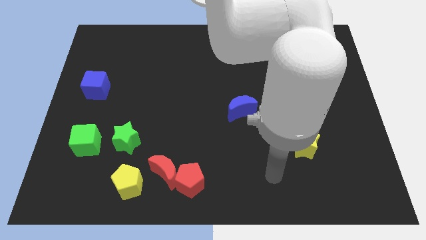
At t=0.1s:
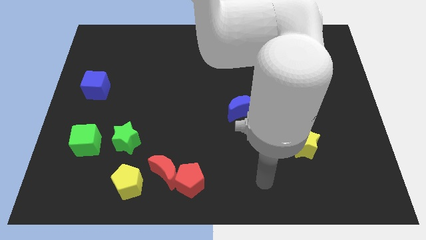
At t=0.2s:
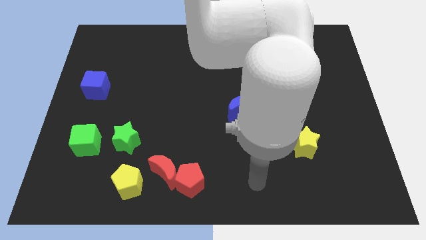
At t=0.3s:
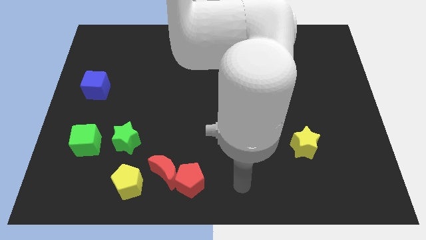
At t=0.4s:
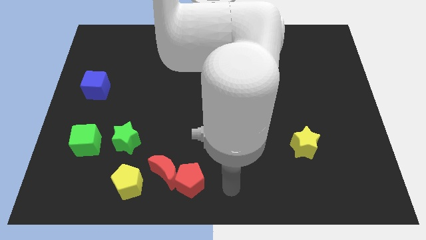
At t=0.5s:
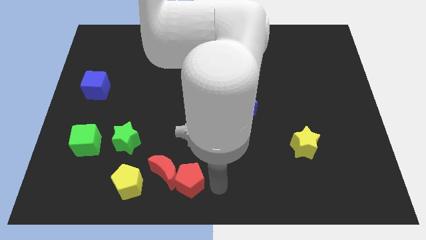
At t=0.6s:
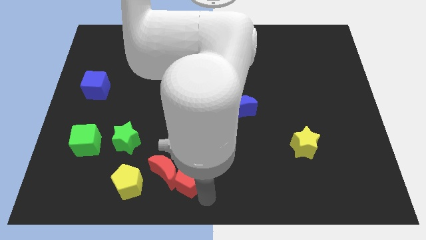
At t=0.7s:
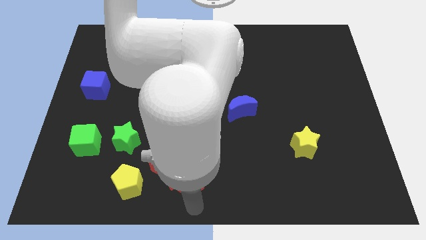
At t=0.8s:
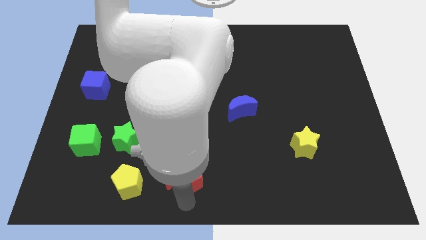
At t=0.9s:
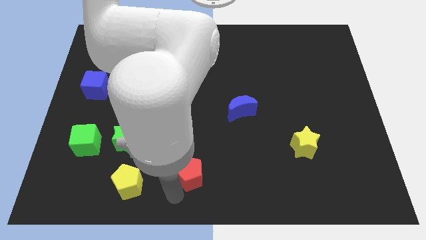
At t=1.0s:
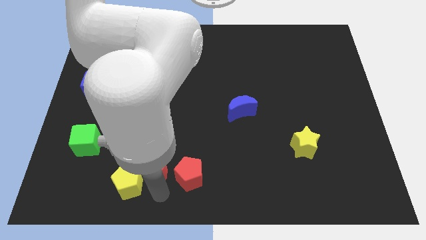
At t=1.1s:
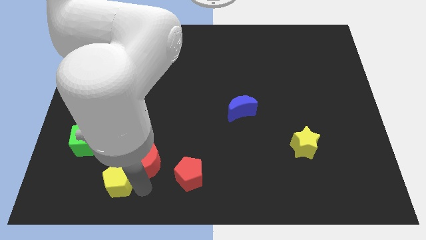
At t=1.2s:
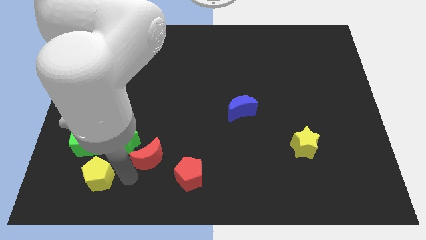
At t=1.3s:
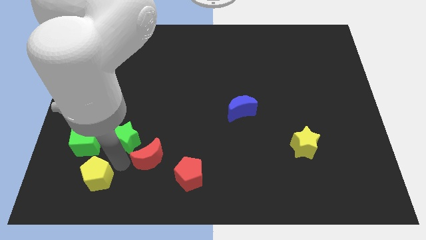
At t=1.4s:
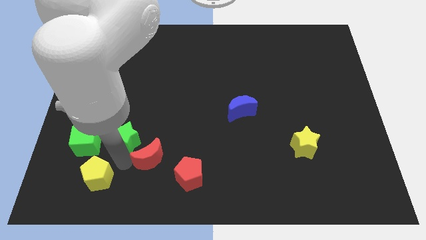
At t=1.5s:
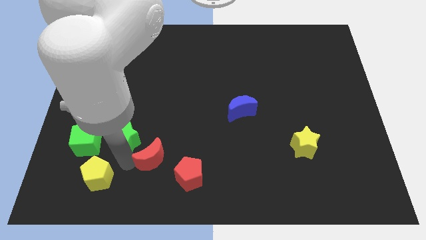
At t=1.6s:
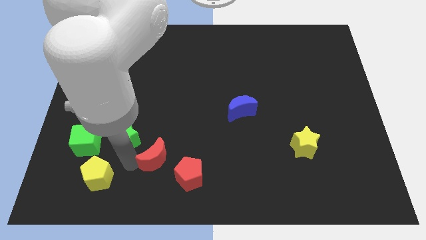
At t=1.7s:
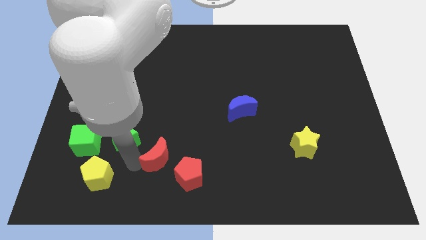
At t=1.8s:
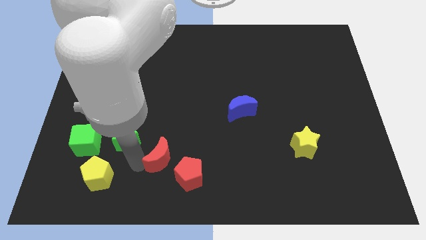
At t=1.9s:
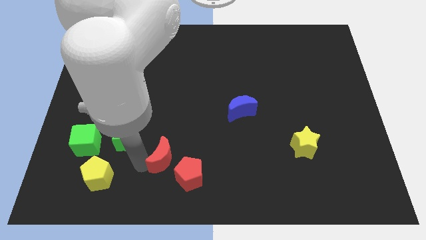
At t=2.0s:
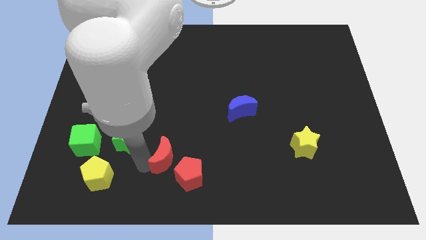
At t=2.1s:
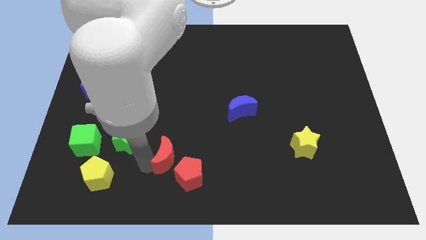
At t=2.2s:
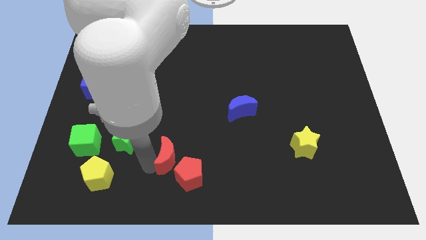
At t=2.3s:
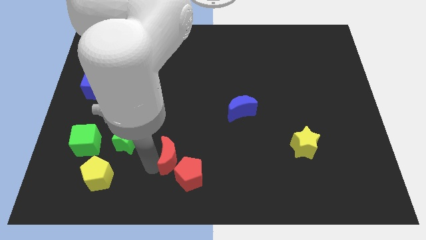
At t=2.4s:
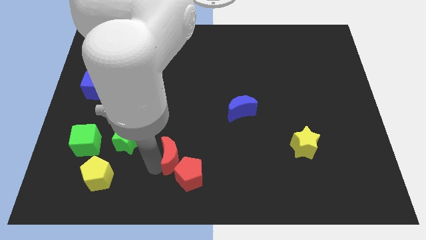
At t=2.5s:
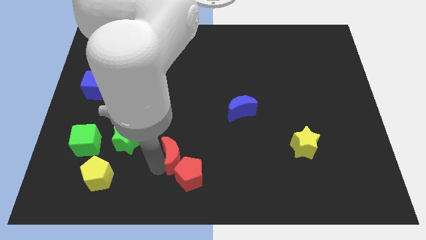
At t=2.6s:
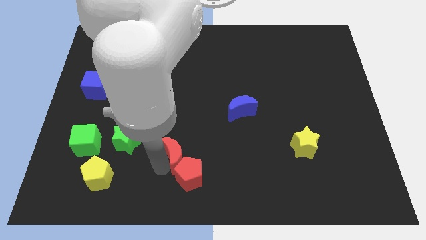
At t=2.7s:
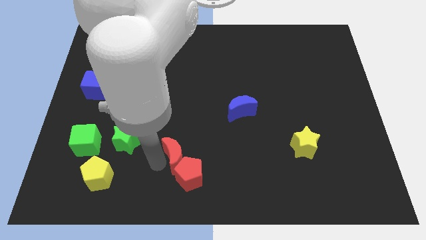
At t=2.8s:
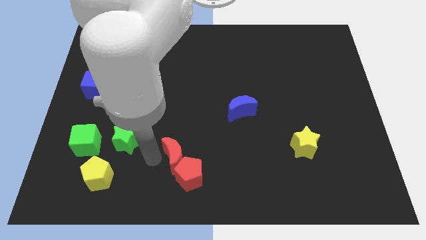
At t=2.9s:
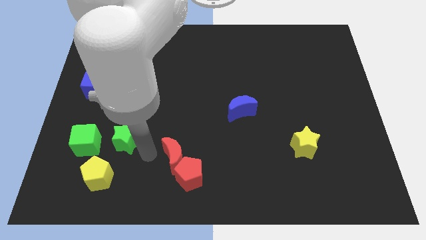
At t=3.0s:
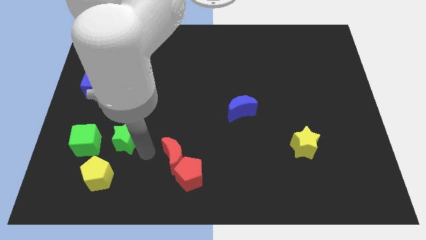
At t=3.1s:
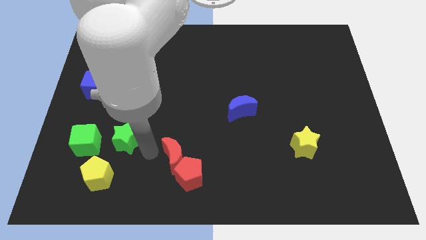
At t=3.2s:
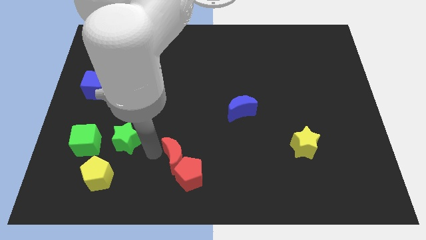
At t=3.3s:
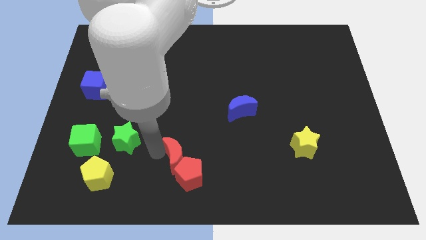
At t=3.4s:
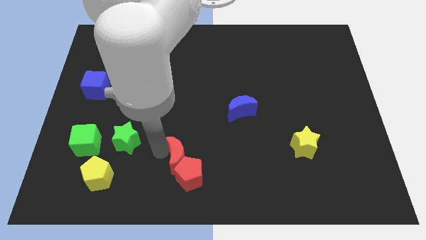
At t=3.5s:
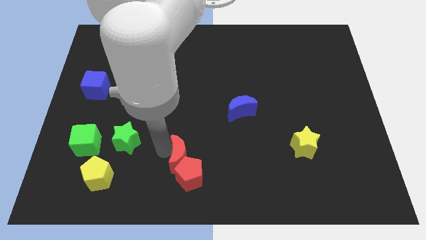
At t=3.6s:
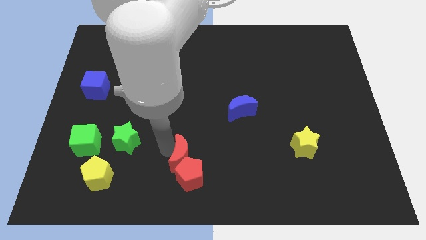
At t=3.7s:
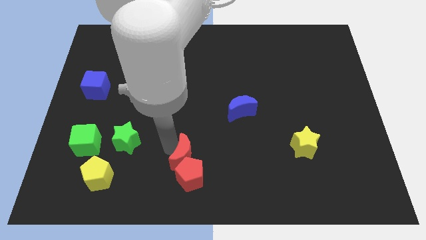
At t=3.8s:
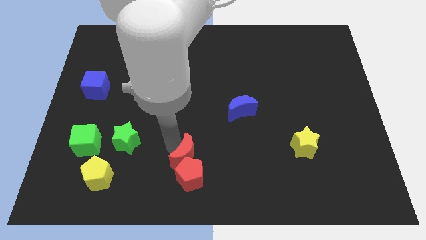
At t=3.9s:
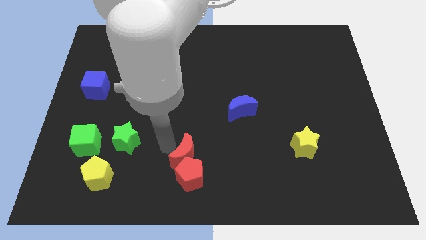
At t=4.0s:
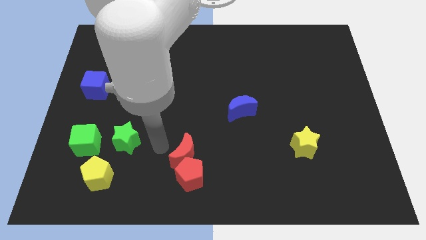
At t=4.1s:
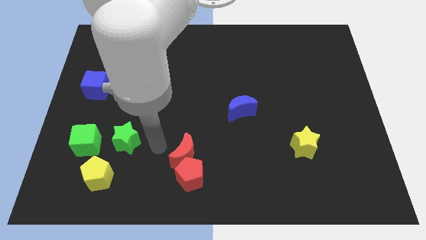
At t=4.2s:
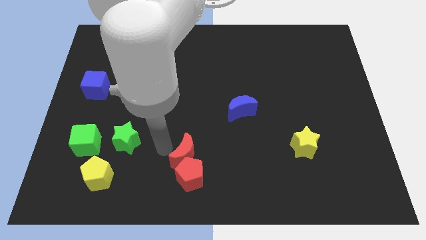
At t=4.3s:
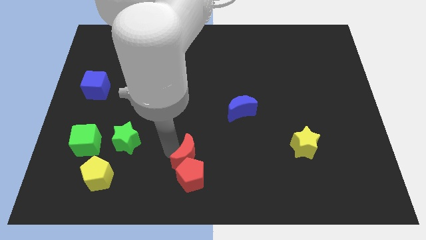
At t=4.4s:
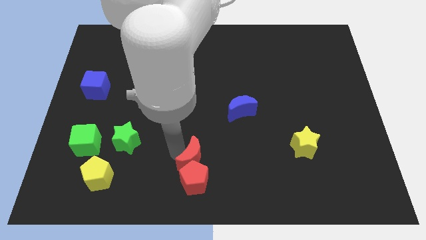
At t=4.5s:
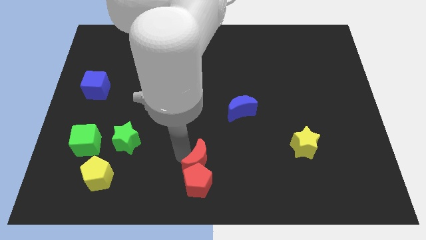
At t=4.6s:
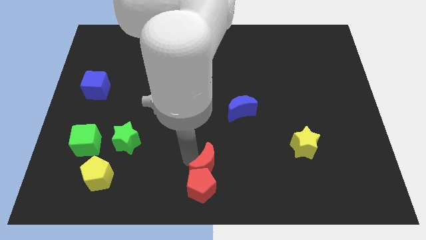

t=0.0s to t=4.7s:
slide the red moon slightly right

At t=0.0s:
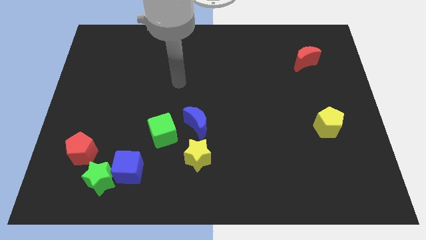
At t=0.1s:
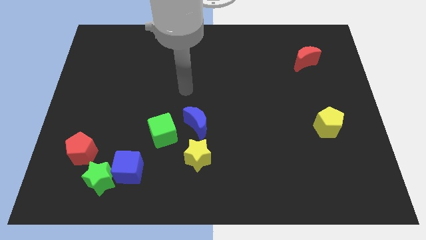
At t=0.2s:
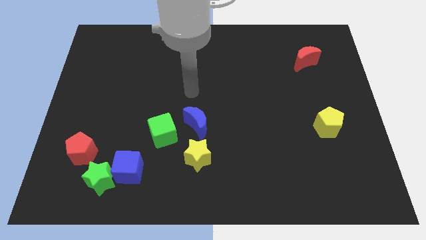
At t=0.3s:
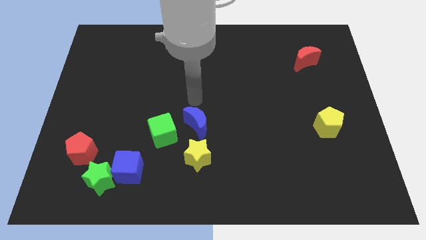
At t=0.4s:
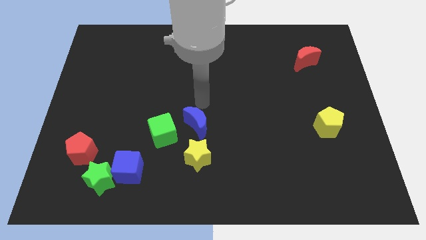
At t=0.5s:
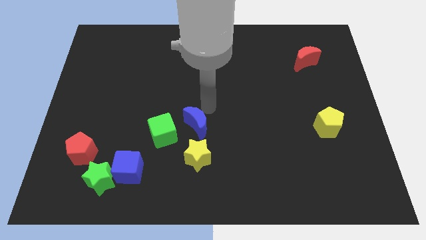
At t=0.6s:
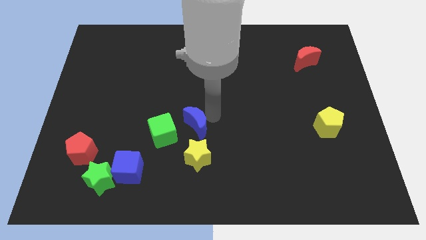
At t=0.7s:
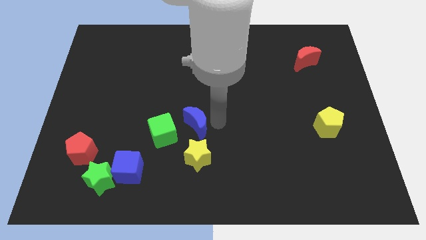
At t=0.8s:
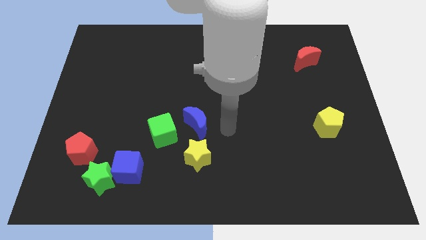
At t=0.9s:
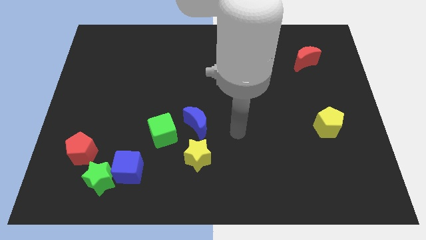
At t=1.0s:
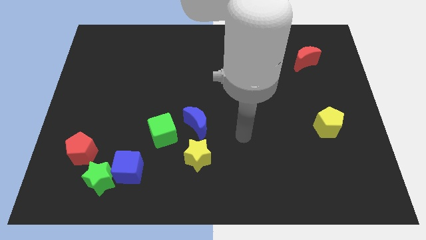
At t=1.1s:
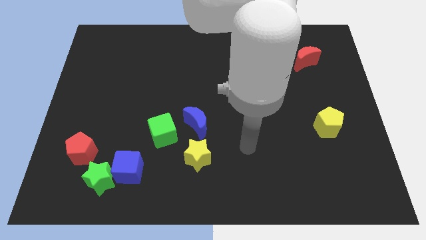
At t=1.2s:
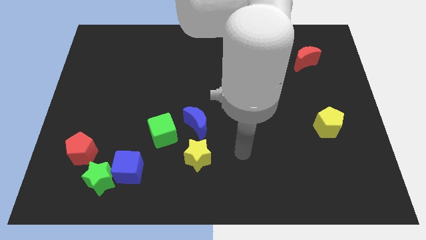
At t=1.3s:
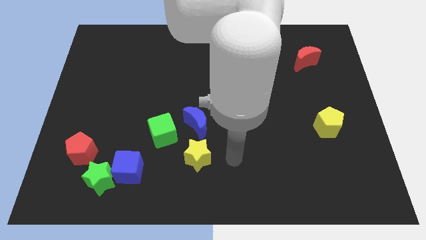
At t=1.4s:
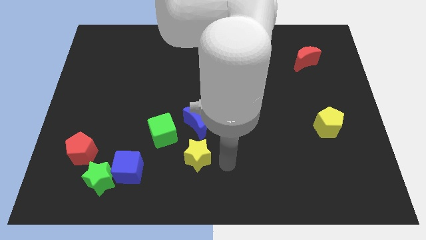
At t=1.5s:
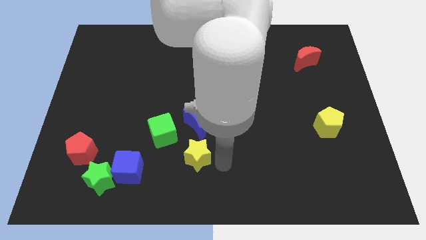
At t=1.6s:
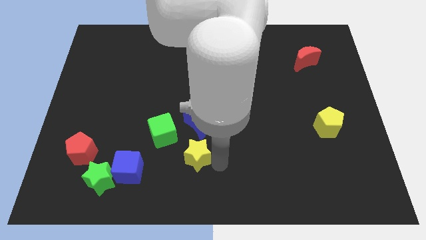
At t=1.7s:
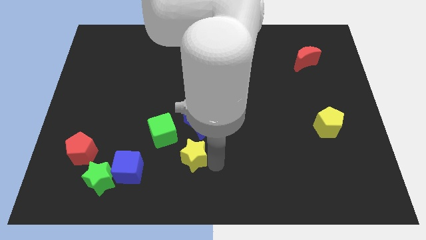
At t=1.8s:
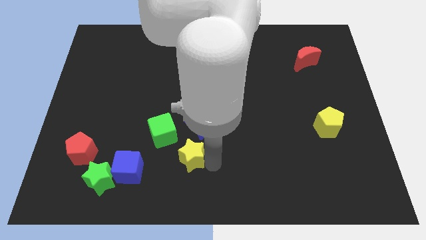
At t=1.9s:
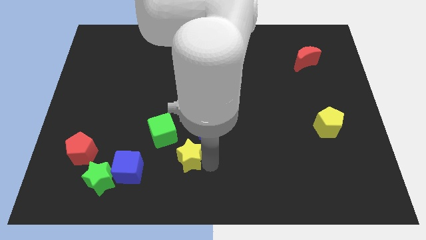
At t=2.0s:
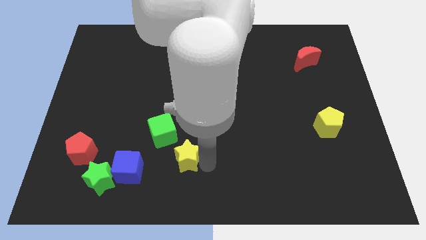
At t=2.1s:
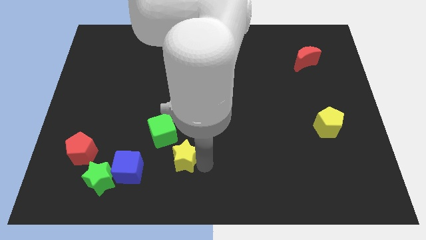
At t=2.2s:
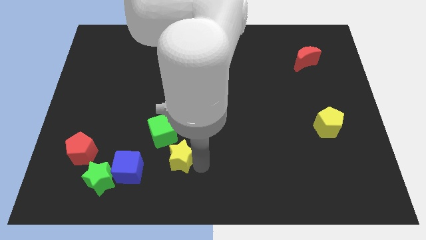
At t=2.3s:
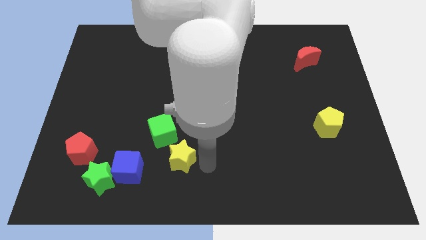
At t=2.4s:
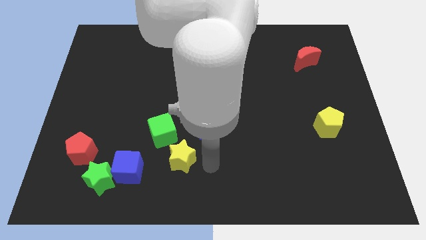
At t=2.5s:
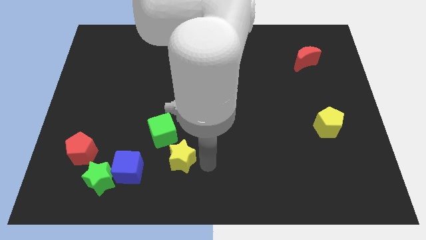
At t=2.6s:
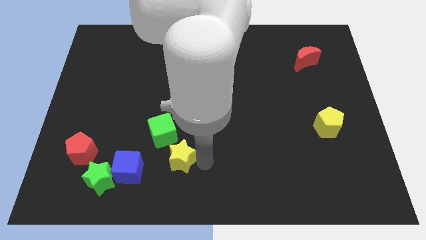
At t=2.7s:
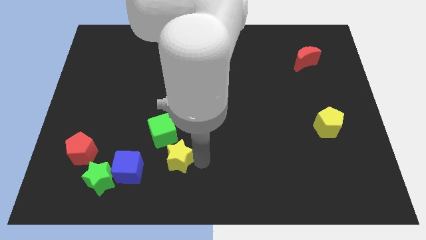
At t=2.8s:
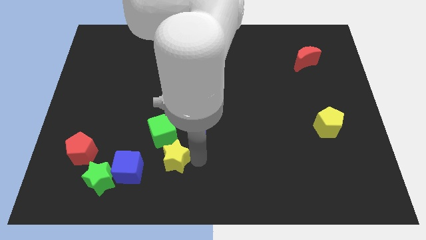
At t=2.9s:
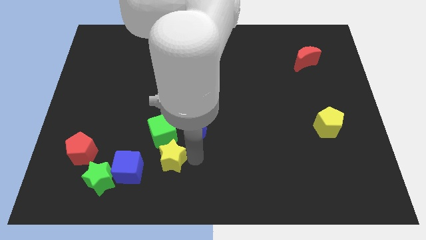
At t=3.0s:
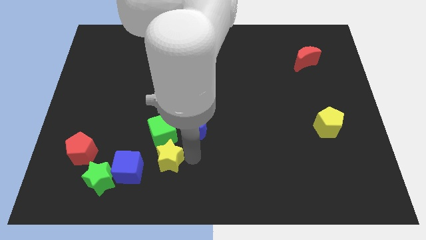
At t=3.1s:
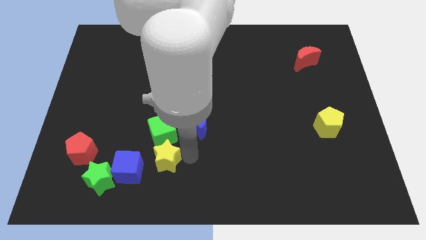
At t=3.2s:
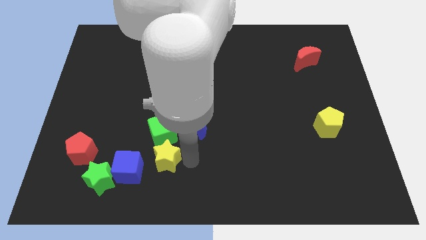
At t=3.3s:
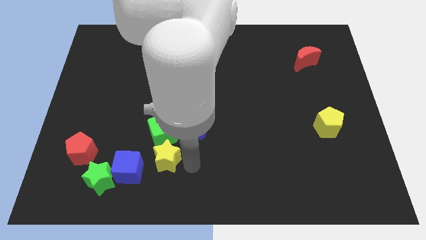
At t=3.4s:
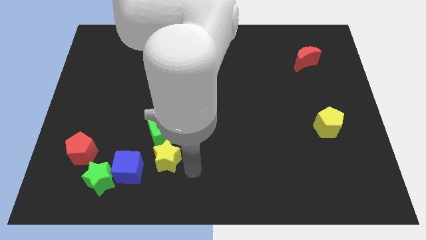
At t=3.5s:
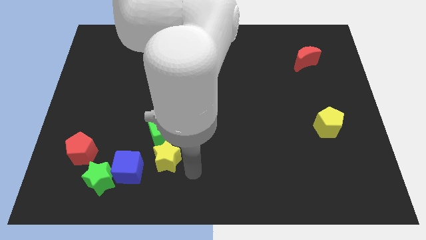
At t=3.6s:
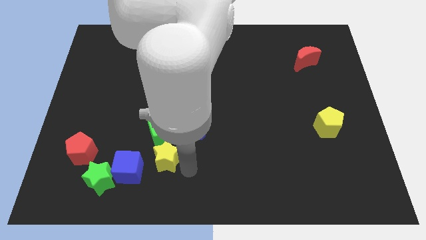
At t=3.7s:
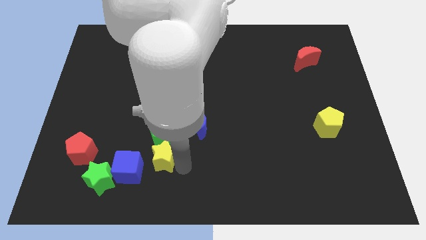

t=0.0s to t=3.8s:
slightly move the yellow star to the left
